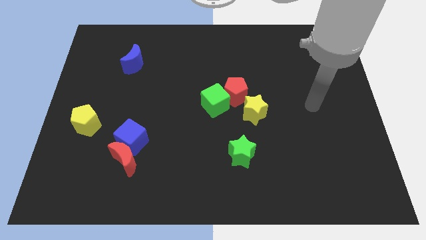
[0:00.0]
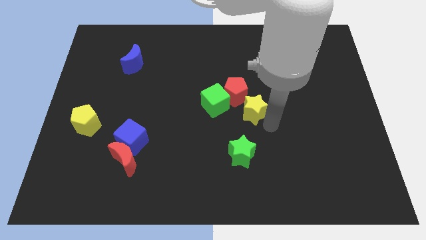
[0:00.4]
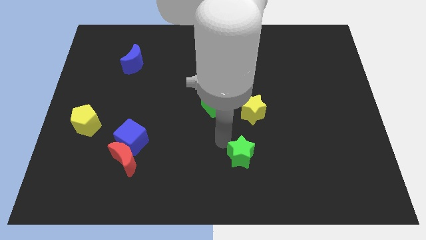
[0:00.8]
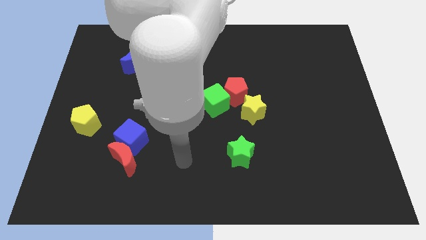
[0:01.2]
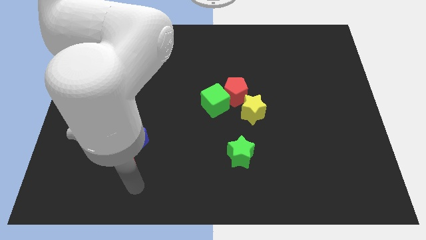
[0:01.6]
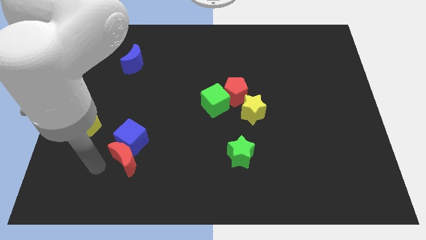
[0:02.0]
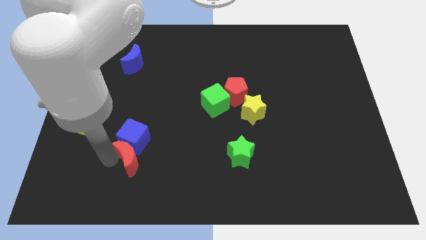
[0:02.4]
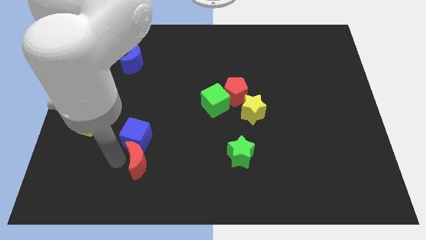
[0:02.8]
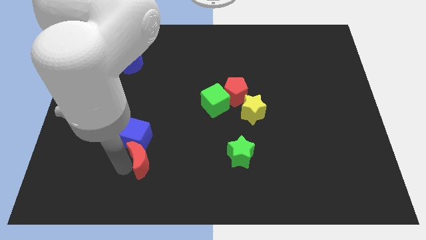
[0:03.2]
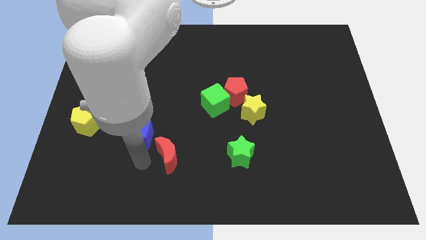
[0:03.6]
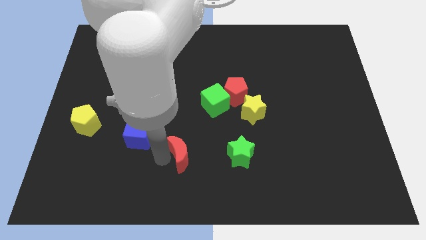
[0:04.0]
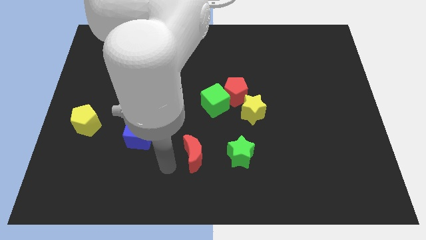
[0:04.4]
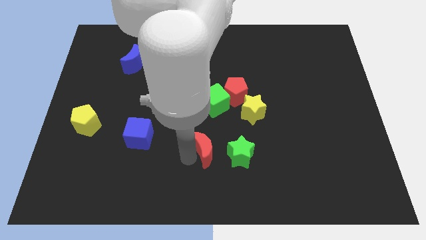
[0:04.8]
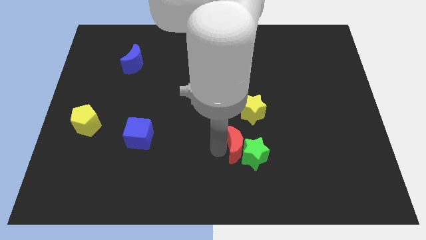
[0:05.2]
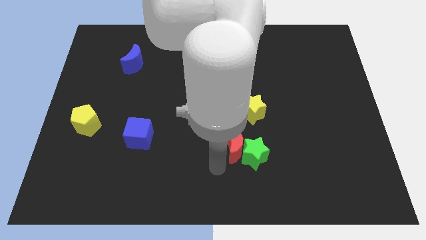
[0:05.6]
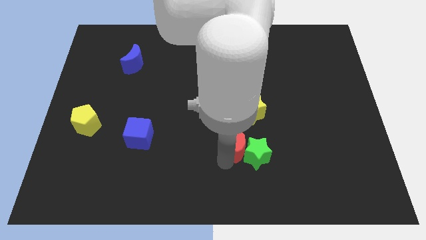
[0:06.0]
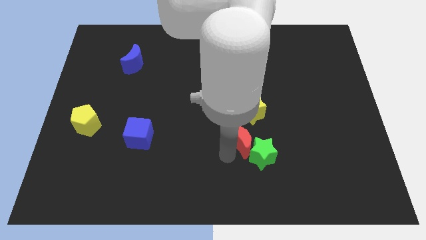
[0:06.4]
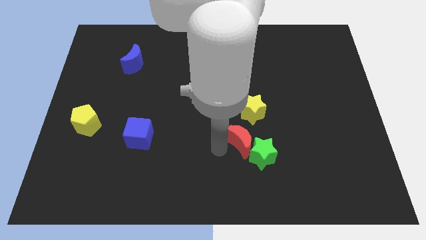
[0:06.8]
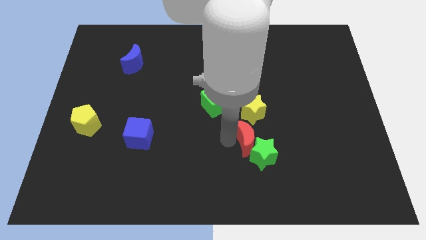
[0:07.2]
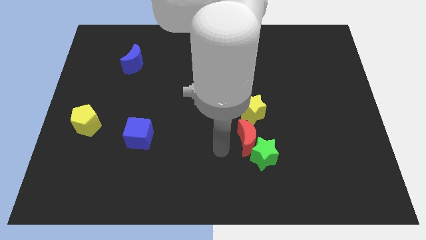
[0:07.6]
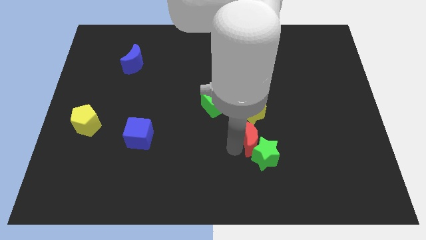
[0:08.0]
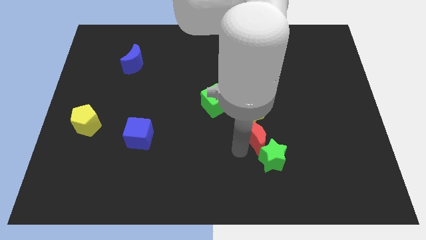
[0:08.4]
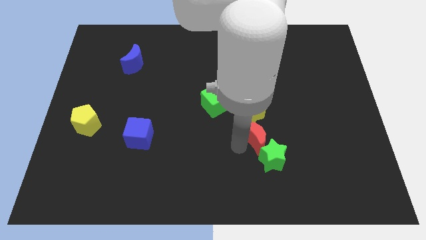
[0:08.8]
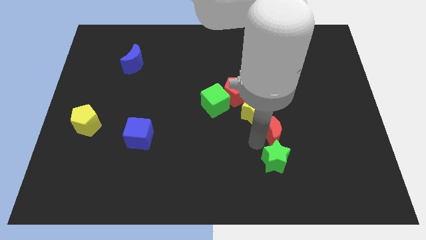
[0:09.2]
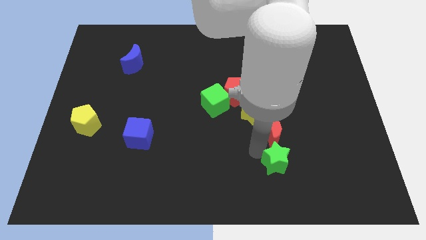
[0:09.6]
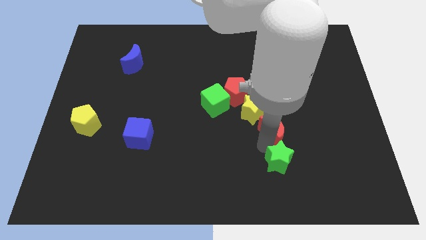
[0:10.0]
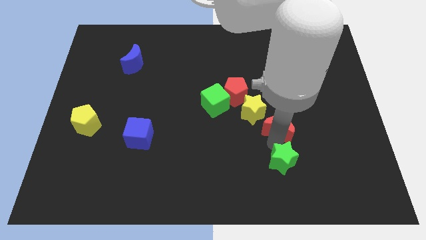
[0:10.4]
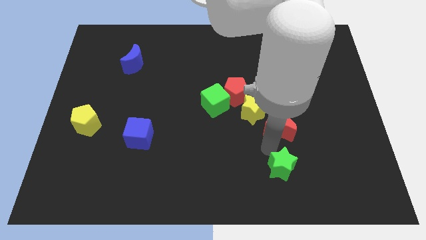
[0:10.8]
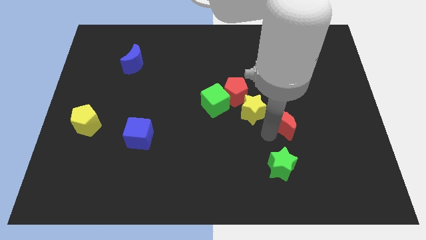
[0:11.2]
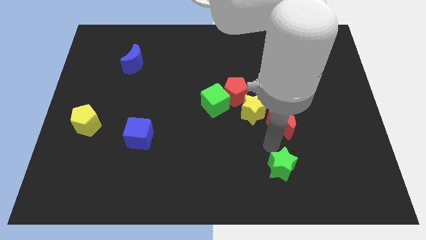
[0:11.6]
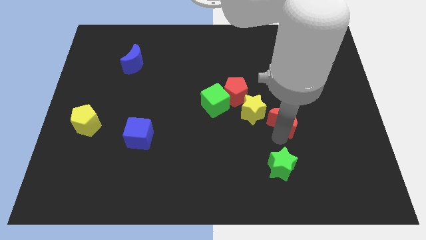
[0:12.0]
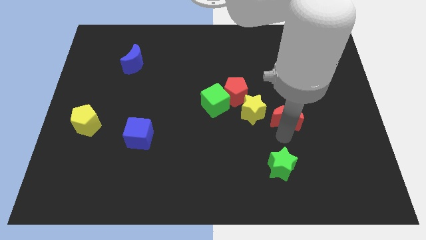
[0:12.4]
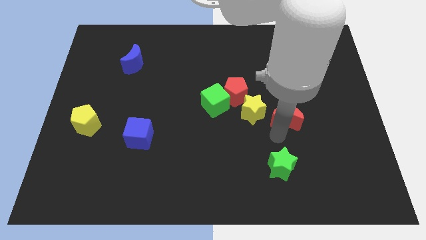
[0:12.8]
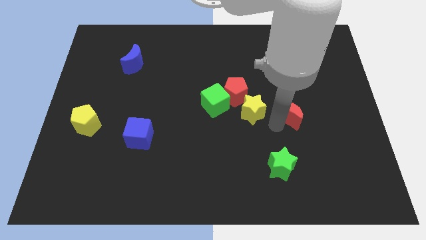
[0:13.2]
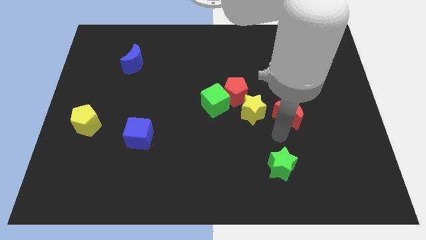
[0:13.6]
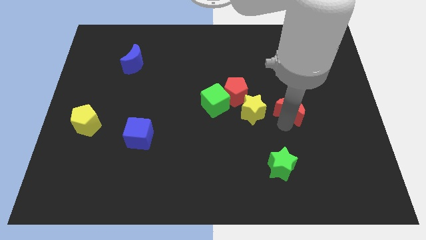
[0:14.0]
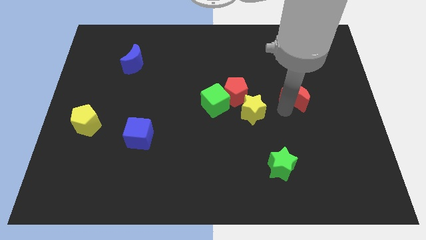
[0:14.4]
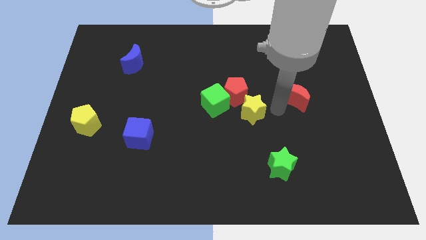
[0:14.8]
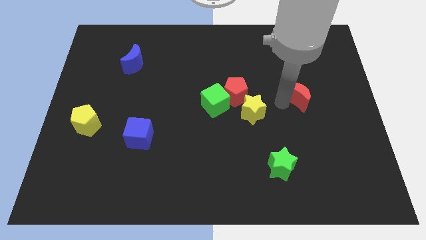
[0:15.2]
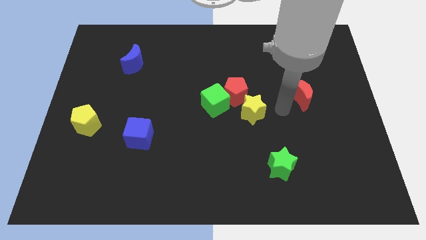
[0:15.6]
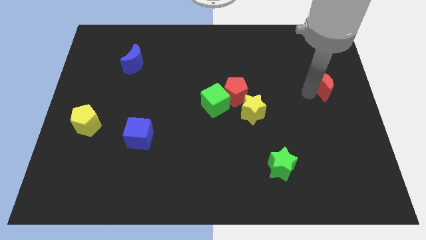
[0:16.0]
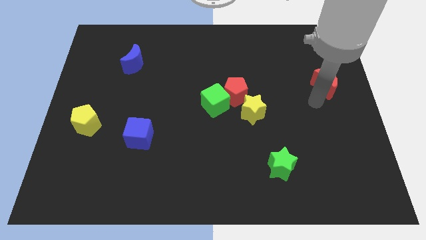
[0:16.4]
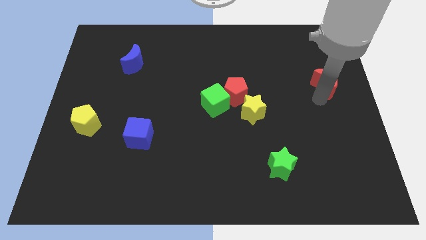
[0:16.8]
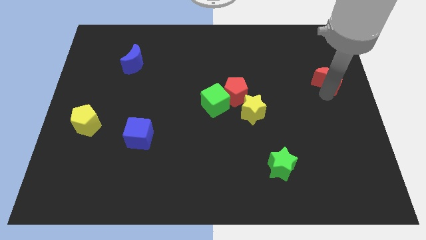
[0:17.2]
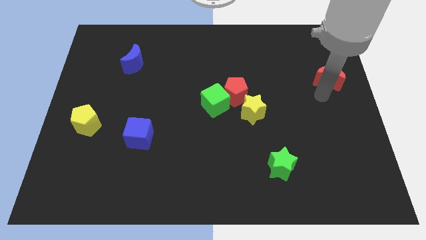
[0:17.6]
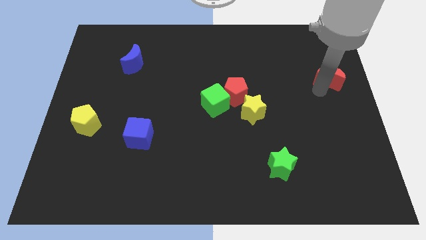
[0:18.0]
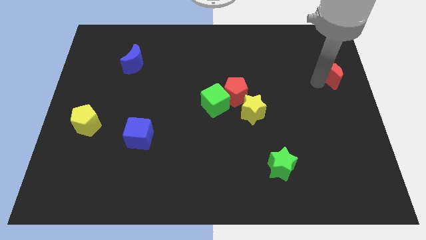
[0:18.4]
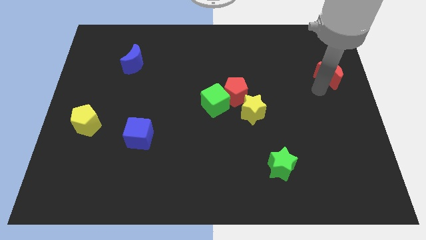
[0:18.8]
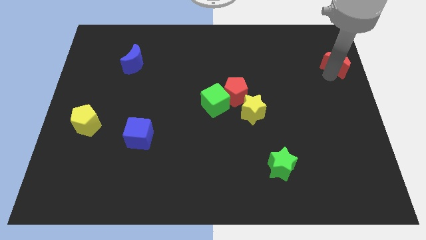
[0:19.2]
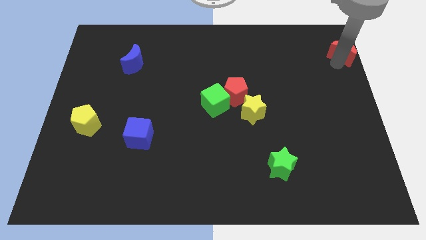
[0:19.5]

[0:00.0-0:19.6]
move the red moon to the top right of the board

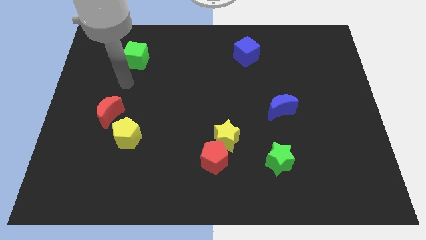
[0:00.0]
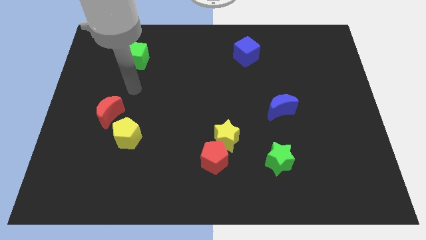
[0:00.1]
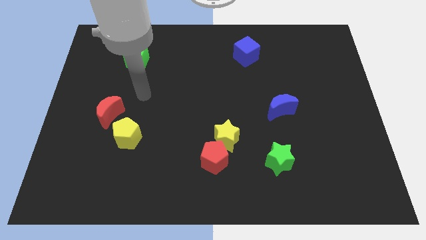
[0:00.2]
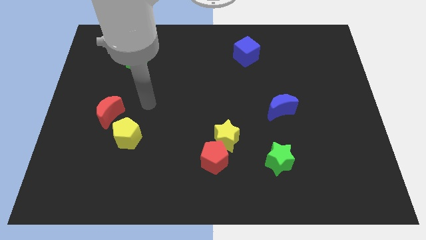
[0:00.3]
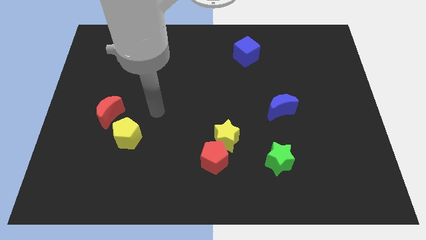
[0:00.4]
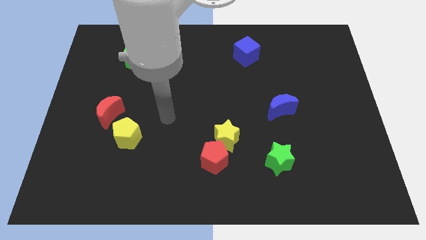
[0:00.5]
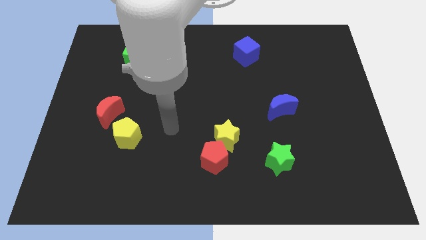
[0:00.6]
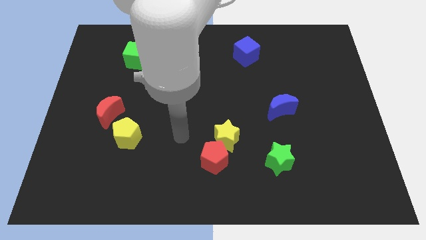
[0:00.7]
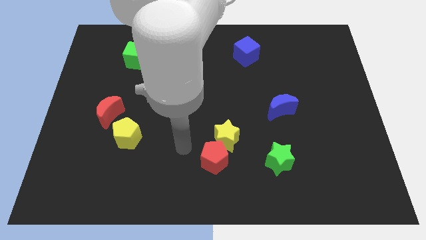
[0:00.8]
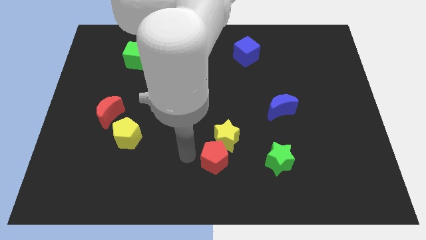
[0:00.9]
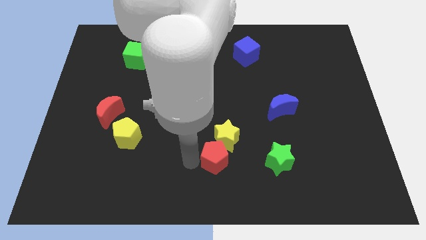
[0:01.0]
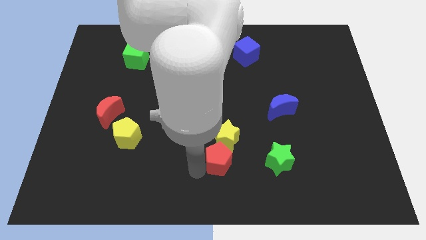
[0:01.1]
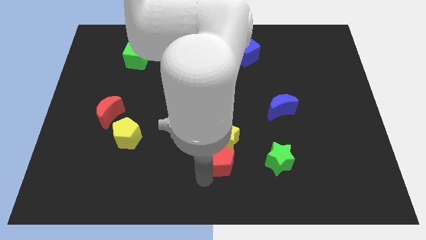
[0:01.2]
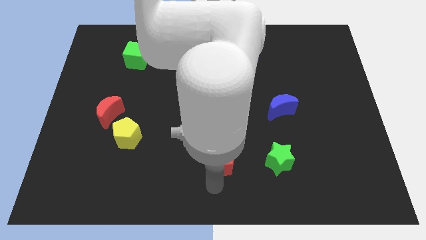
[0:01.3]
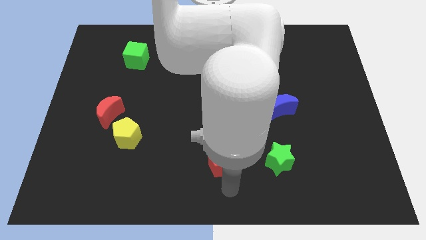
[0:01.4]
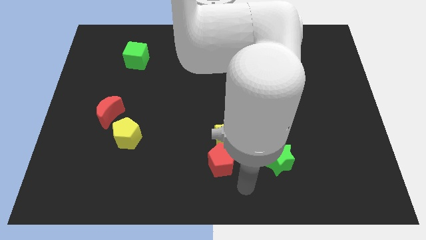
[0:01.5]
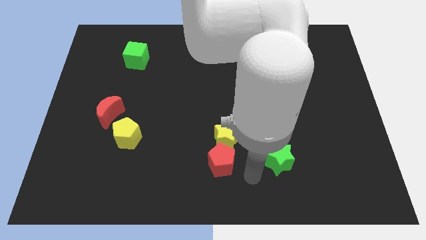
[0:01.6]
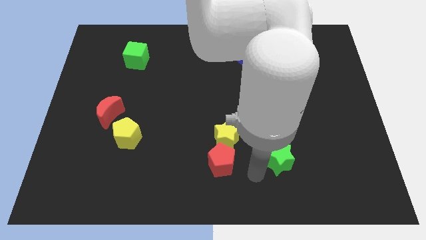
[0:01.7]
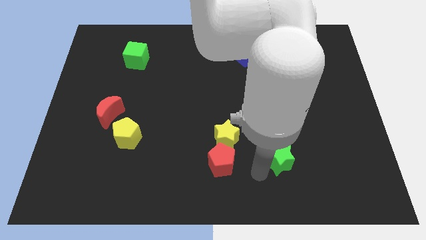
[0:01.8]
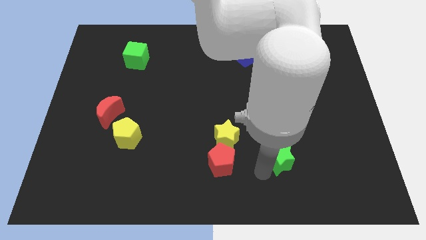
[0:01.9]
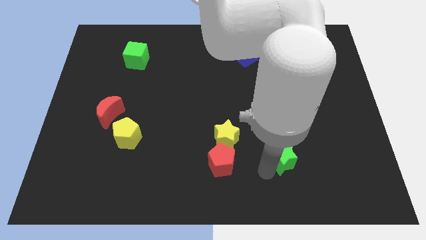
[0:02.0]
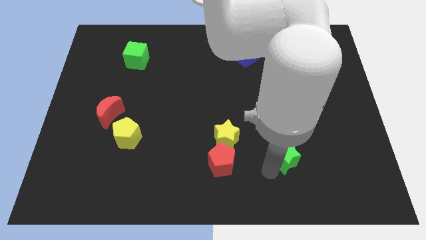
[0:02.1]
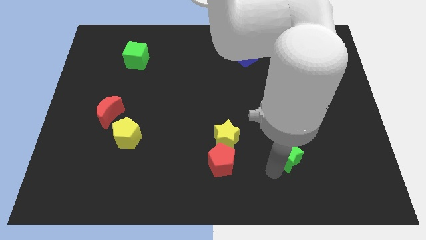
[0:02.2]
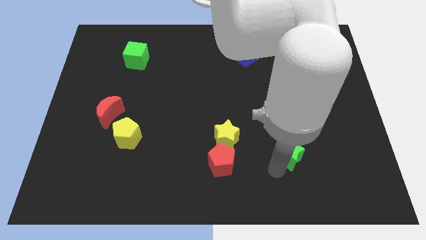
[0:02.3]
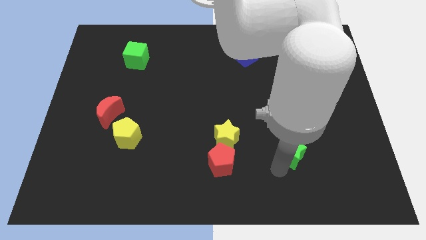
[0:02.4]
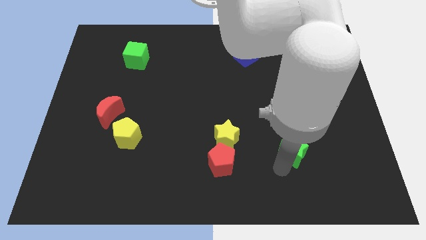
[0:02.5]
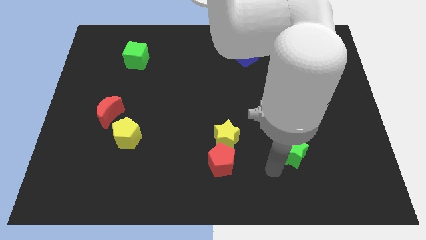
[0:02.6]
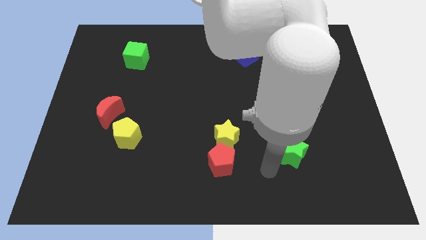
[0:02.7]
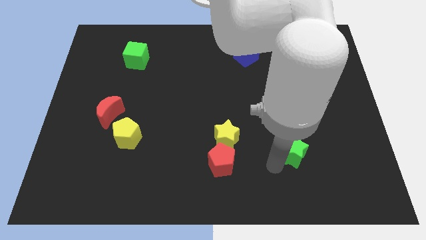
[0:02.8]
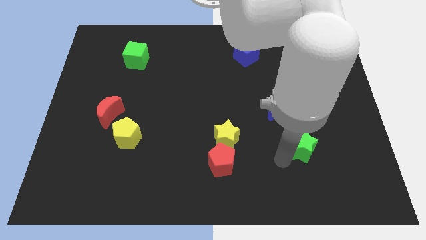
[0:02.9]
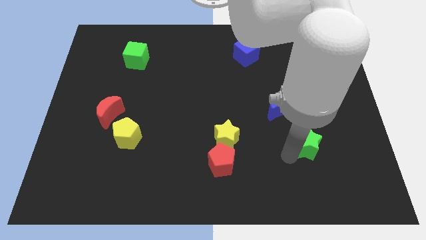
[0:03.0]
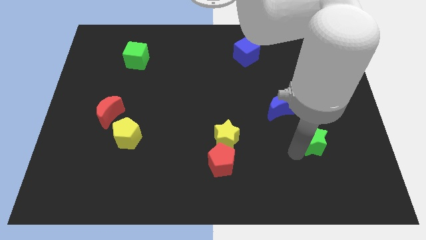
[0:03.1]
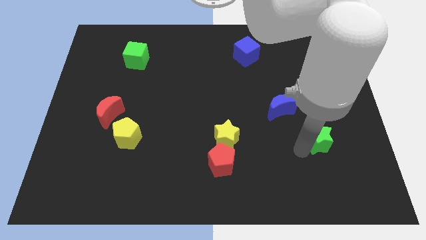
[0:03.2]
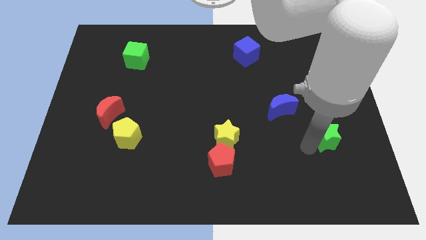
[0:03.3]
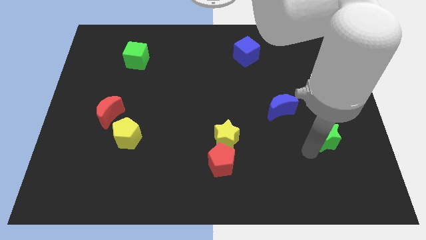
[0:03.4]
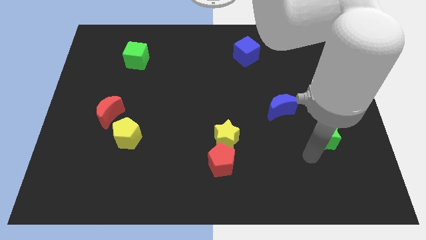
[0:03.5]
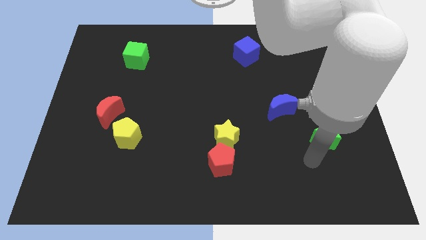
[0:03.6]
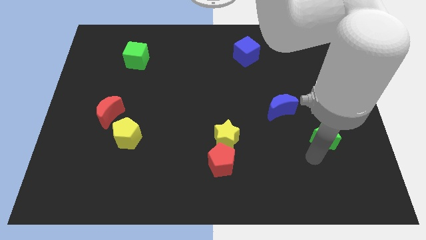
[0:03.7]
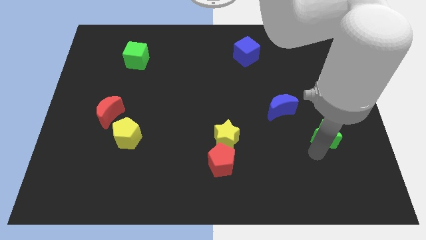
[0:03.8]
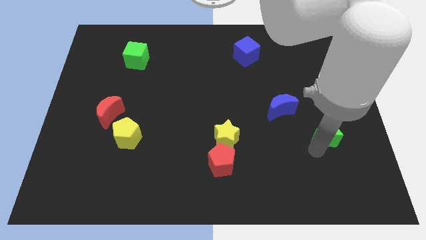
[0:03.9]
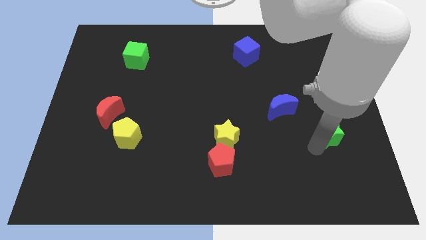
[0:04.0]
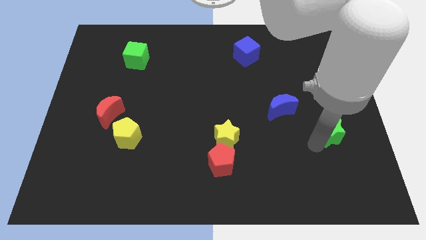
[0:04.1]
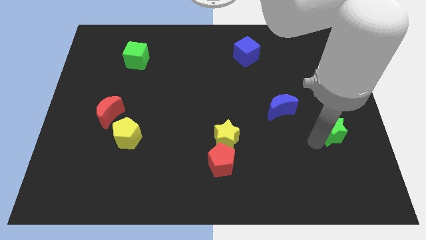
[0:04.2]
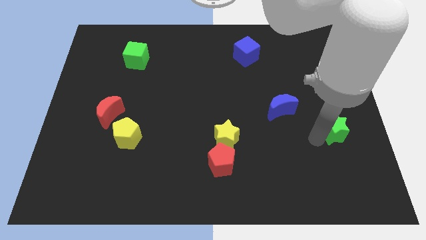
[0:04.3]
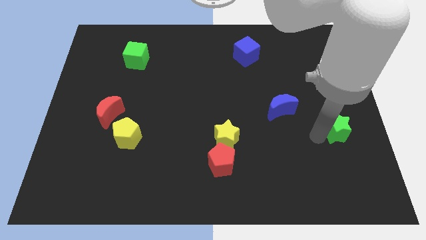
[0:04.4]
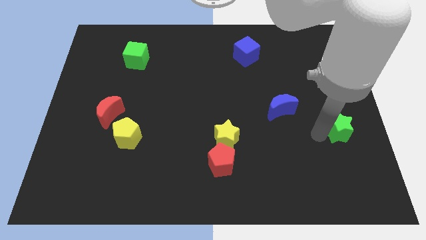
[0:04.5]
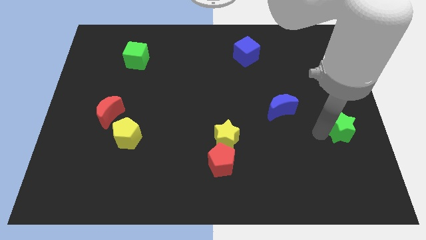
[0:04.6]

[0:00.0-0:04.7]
push the green star to the center right
